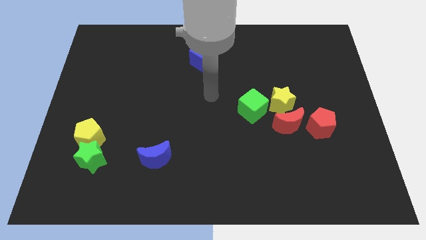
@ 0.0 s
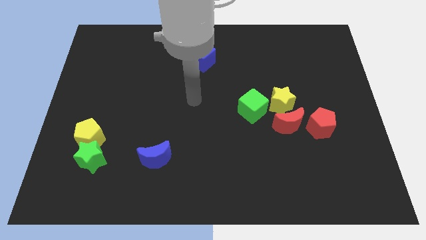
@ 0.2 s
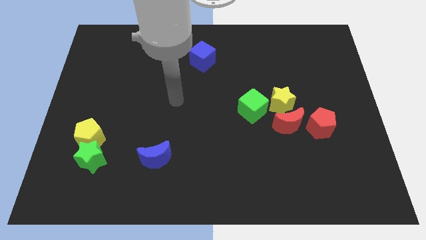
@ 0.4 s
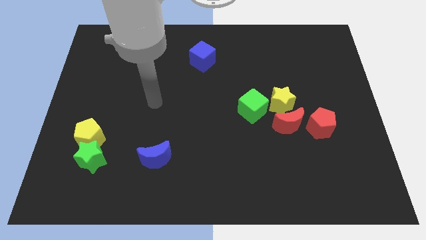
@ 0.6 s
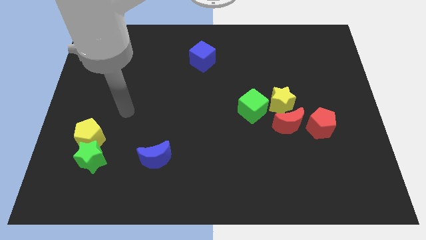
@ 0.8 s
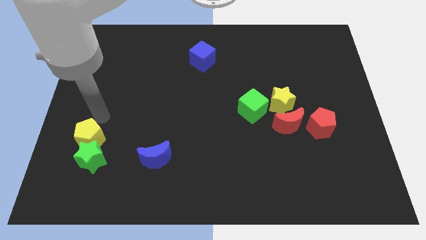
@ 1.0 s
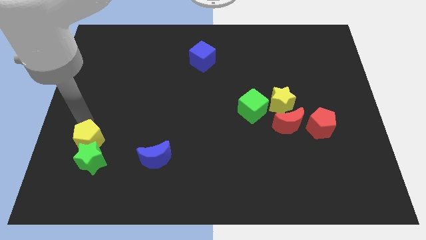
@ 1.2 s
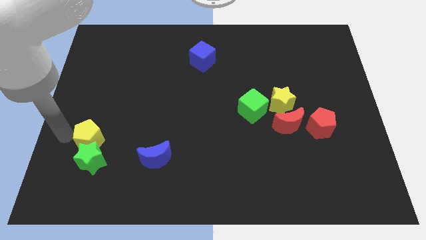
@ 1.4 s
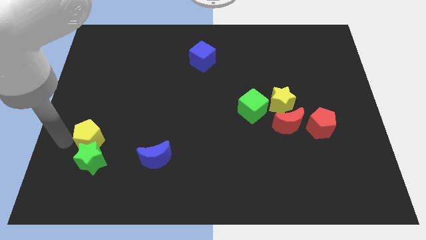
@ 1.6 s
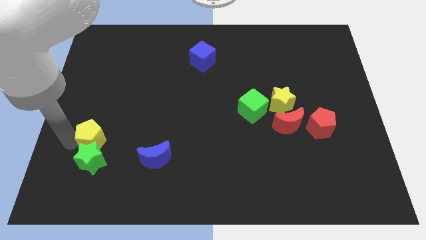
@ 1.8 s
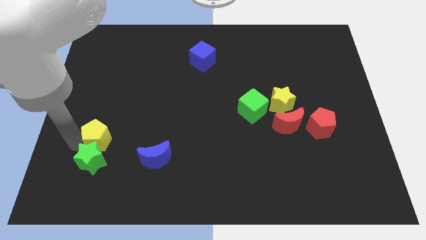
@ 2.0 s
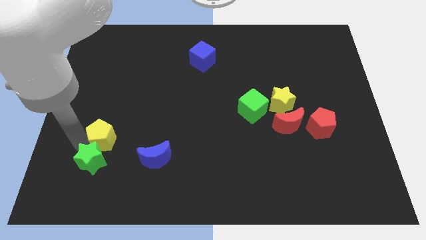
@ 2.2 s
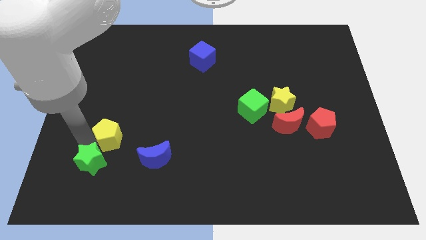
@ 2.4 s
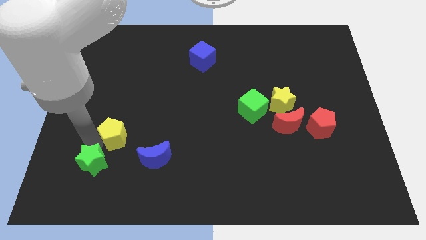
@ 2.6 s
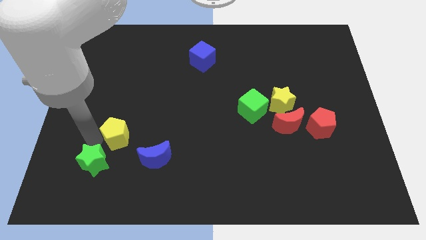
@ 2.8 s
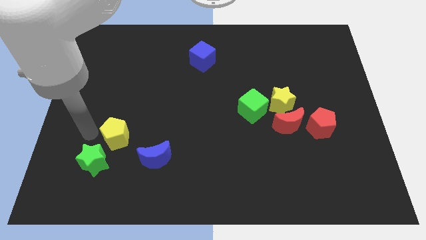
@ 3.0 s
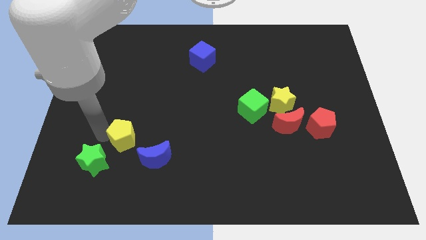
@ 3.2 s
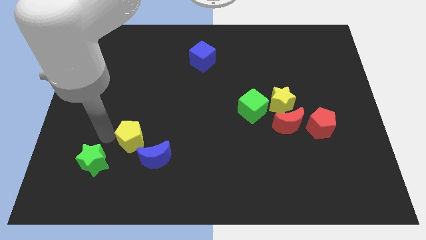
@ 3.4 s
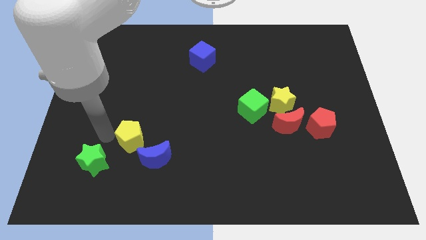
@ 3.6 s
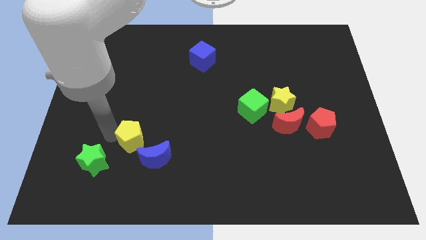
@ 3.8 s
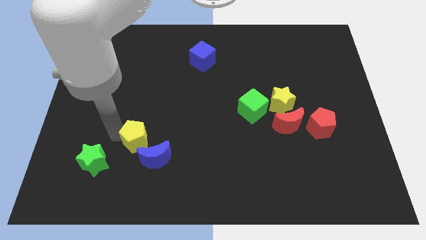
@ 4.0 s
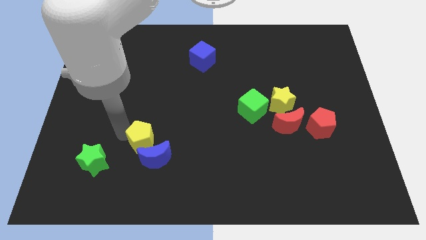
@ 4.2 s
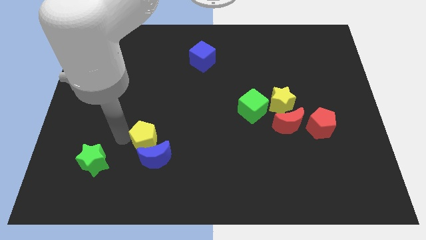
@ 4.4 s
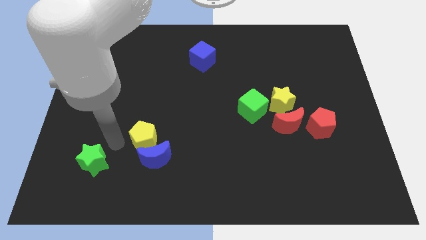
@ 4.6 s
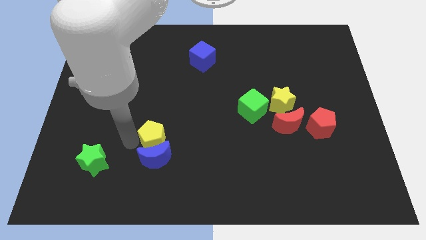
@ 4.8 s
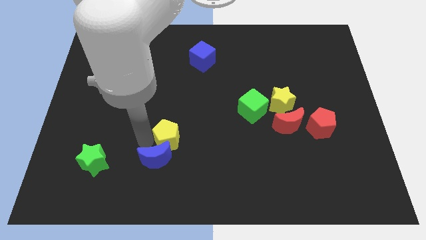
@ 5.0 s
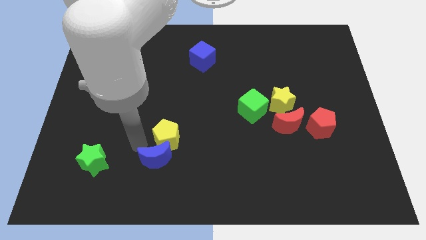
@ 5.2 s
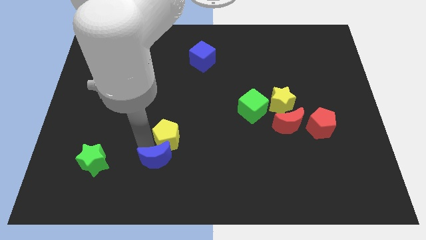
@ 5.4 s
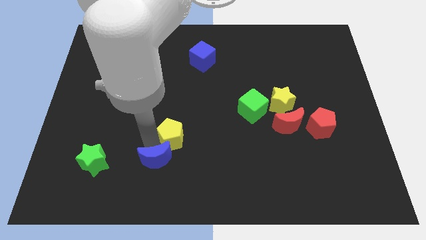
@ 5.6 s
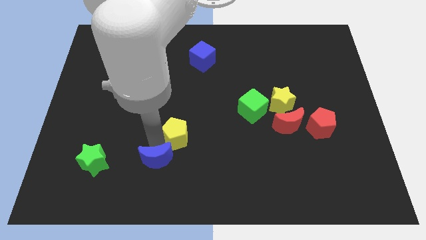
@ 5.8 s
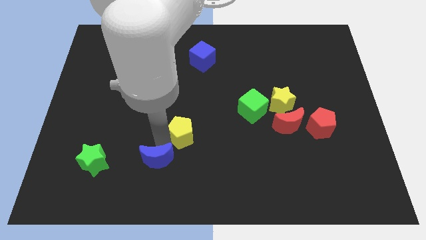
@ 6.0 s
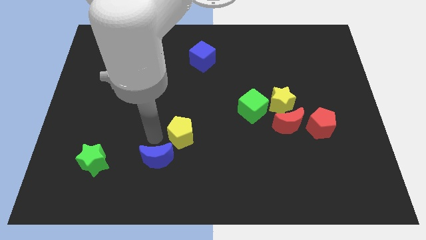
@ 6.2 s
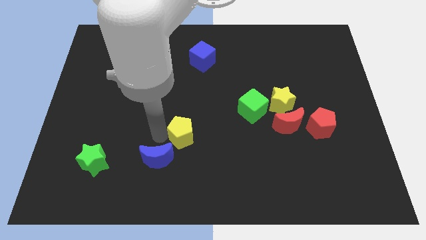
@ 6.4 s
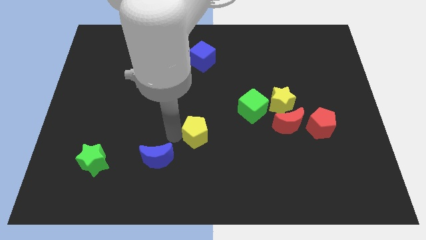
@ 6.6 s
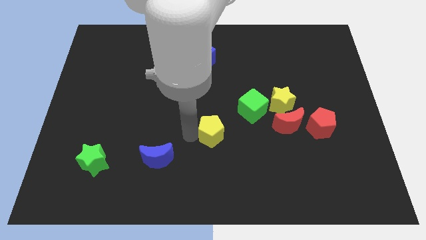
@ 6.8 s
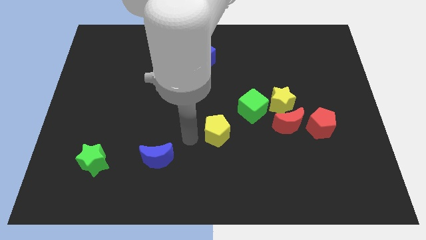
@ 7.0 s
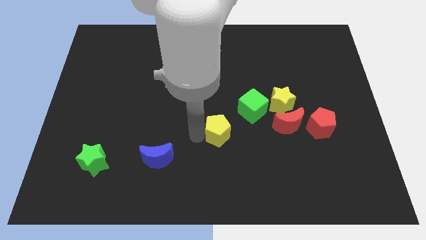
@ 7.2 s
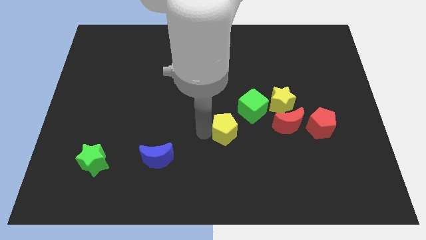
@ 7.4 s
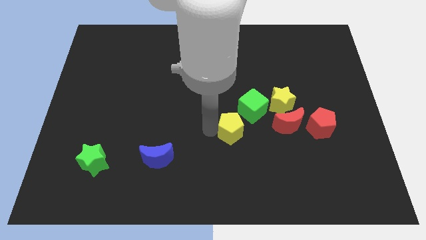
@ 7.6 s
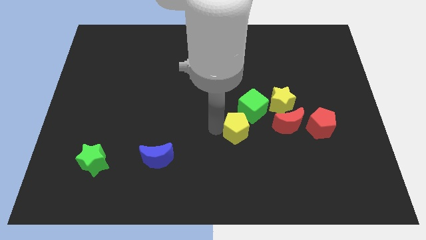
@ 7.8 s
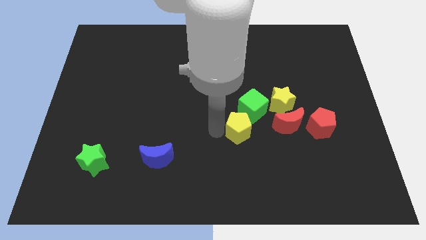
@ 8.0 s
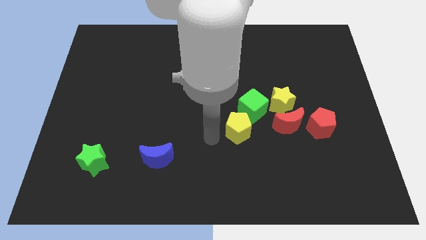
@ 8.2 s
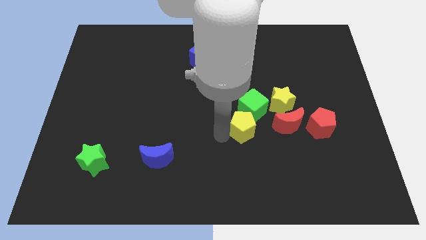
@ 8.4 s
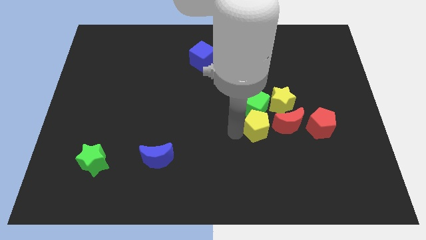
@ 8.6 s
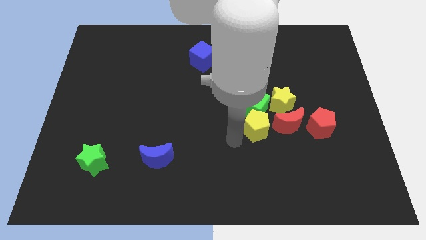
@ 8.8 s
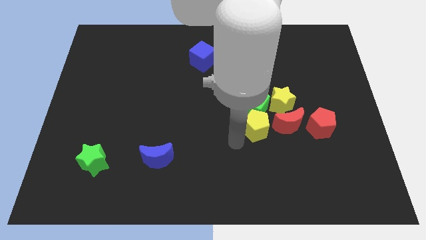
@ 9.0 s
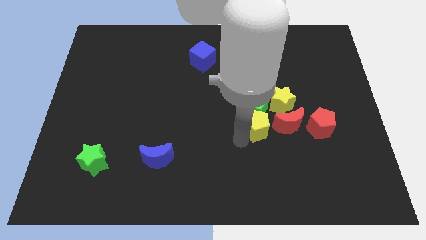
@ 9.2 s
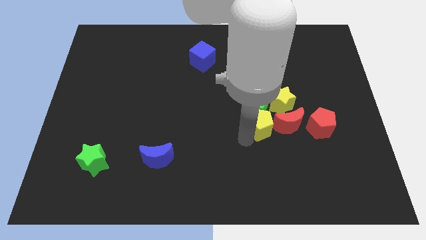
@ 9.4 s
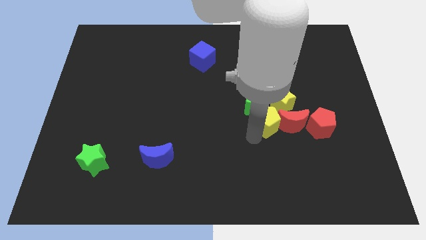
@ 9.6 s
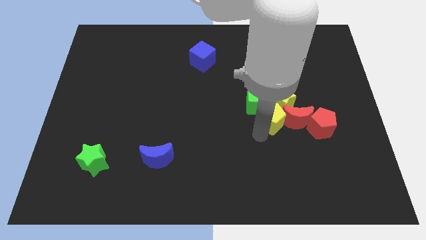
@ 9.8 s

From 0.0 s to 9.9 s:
put the yellow pentagon towards the yellow star

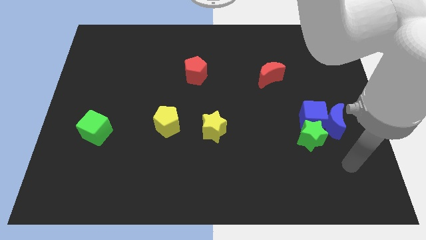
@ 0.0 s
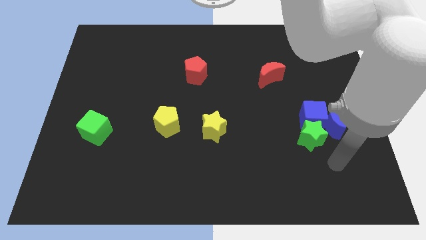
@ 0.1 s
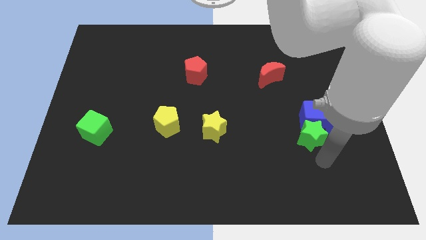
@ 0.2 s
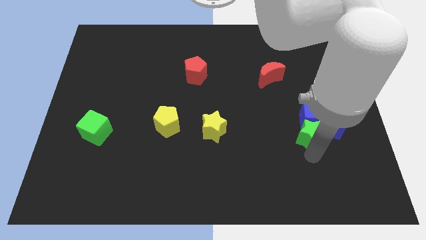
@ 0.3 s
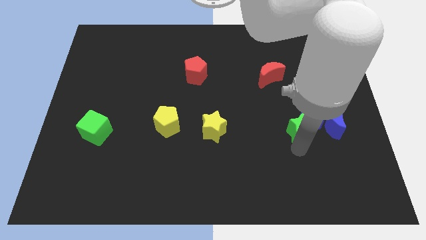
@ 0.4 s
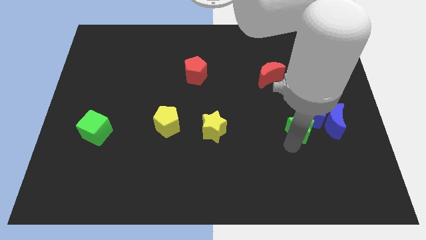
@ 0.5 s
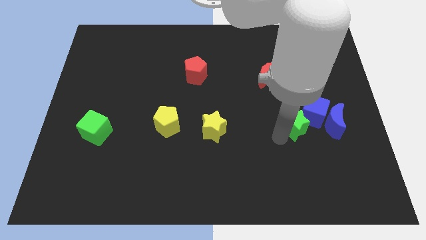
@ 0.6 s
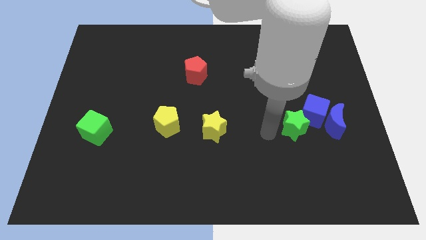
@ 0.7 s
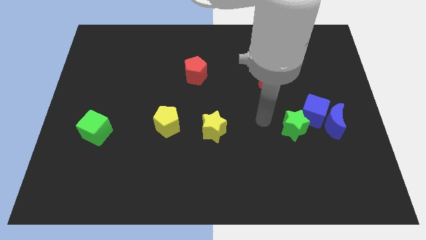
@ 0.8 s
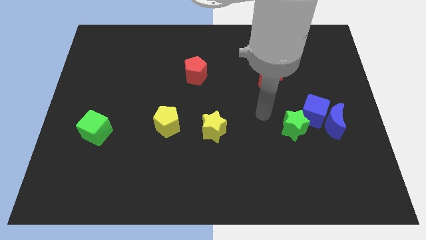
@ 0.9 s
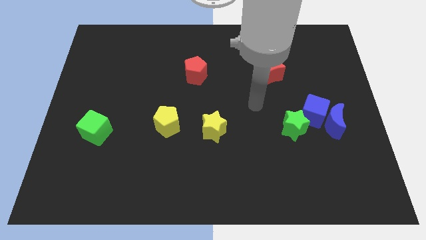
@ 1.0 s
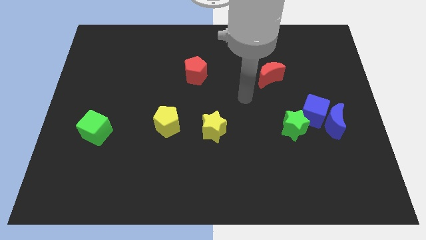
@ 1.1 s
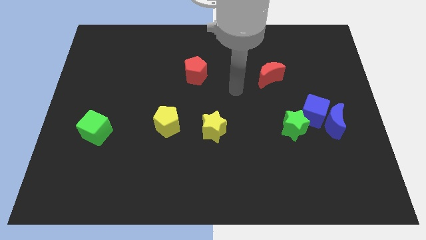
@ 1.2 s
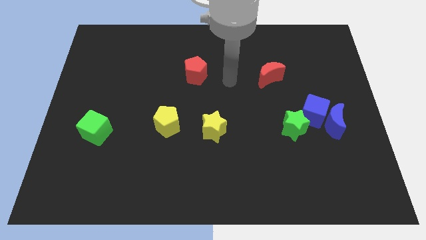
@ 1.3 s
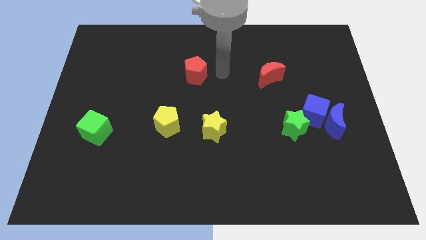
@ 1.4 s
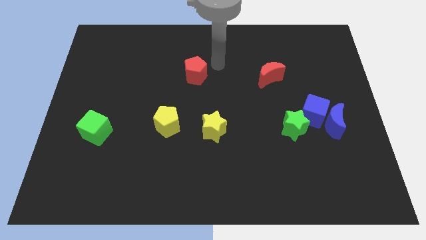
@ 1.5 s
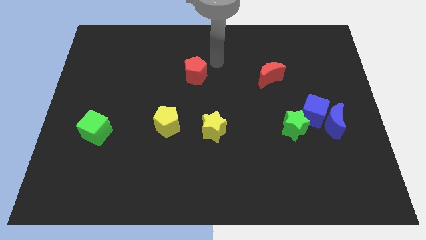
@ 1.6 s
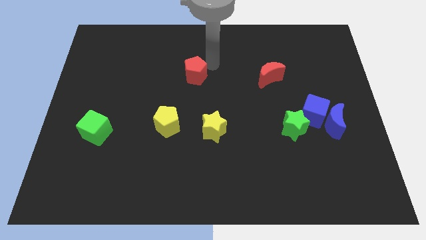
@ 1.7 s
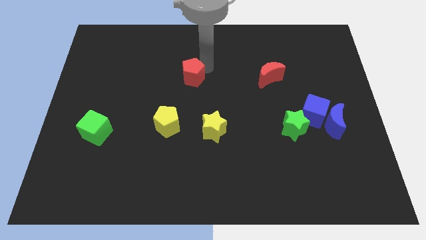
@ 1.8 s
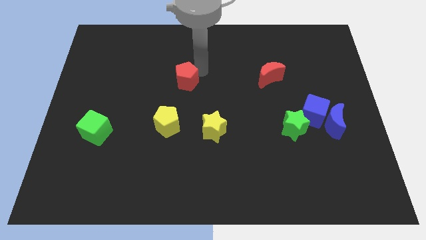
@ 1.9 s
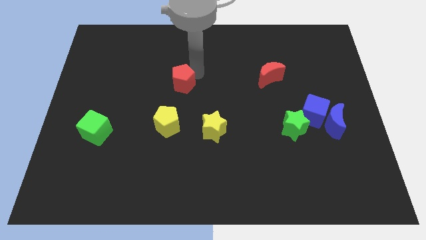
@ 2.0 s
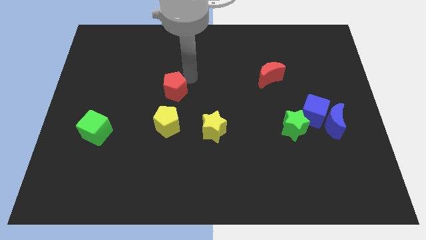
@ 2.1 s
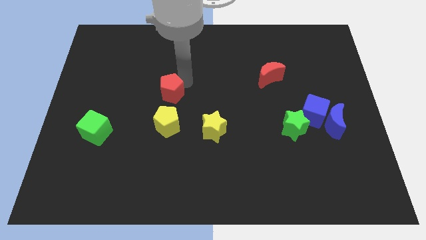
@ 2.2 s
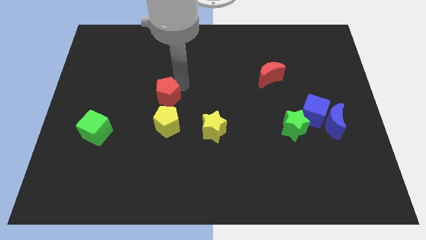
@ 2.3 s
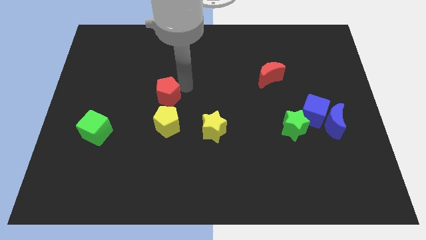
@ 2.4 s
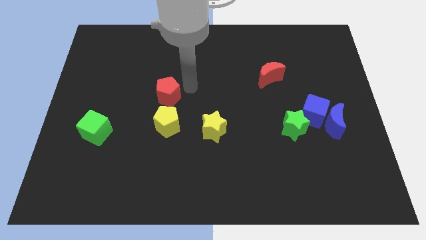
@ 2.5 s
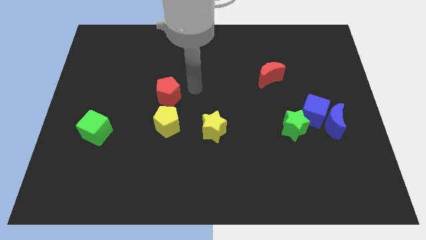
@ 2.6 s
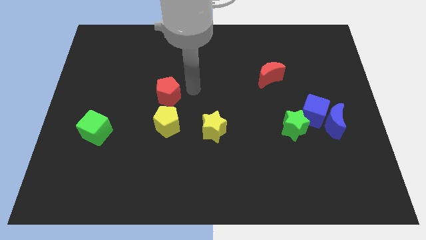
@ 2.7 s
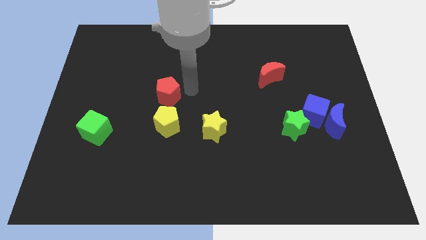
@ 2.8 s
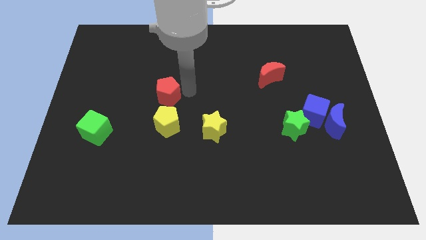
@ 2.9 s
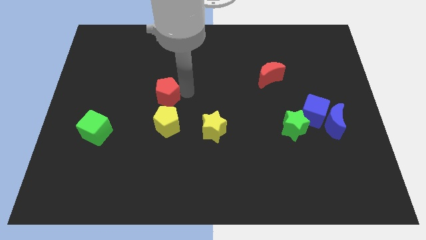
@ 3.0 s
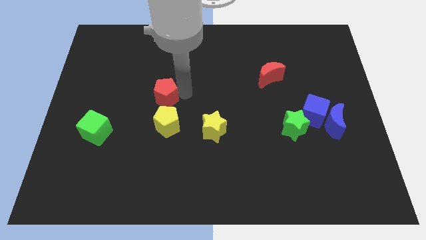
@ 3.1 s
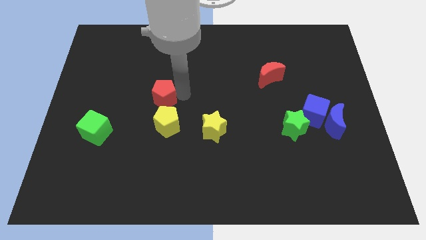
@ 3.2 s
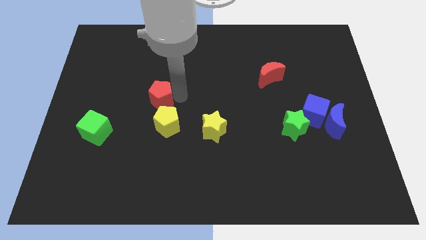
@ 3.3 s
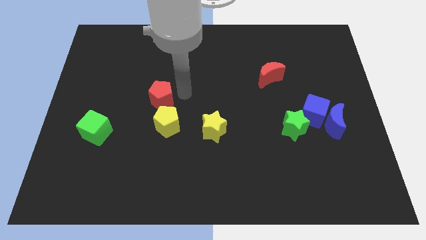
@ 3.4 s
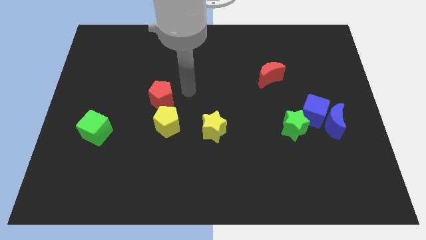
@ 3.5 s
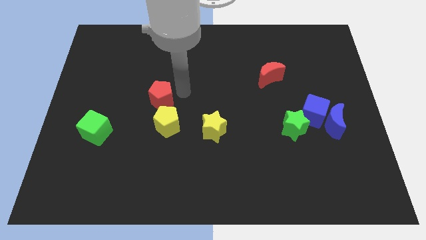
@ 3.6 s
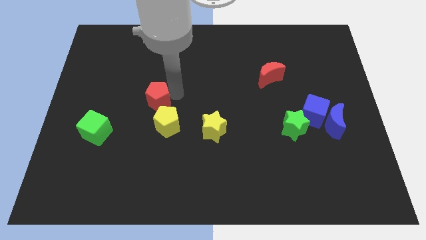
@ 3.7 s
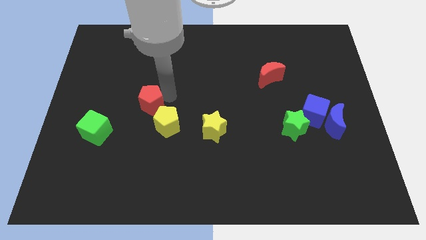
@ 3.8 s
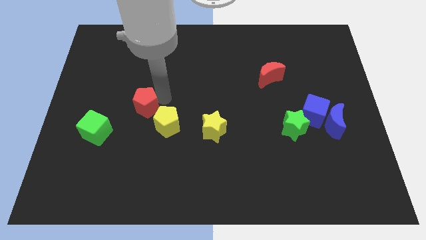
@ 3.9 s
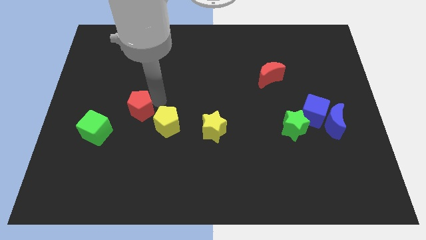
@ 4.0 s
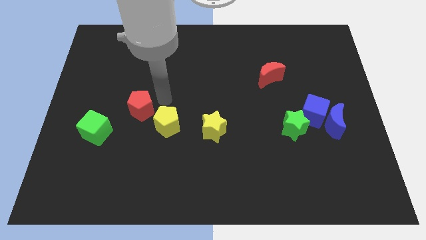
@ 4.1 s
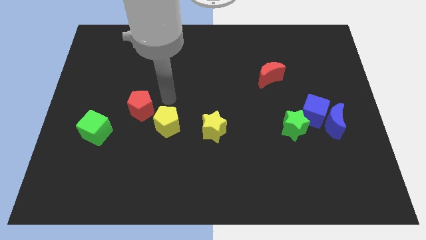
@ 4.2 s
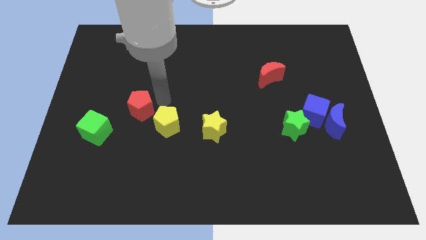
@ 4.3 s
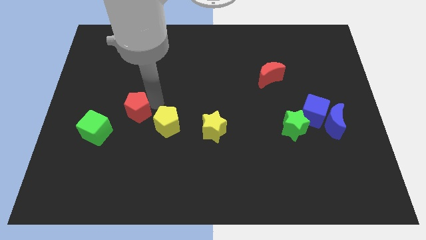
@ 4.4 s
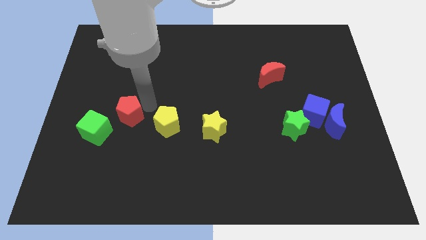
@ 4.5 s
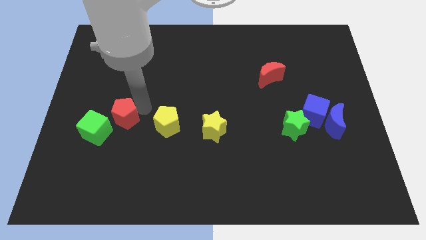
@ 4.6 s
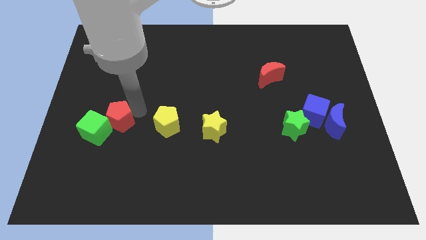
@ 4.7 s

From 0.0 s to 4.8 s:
move the red pentagon next to the green cube
